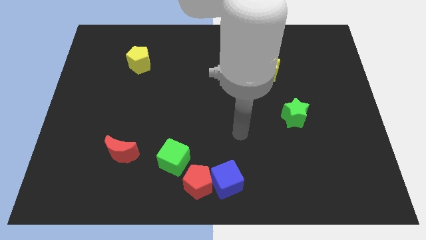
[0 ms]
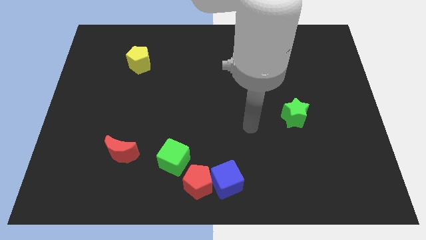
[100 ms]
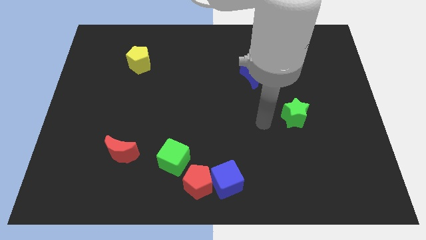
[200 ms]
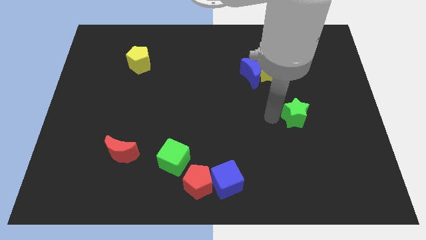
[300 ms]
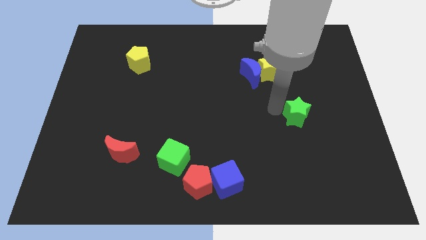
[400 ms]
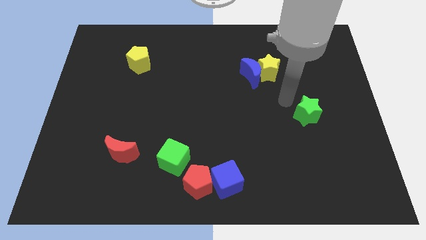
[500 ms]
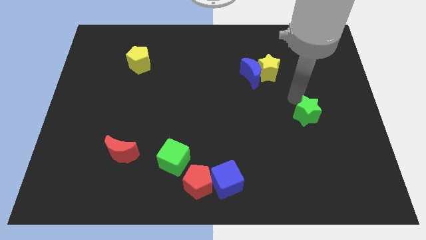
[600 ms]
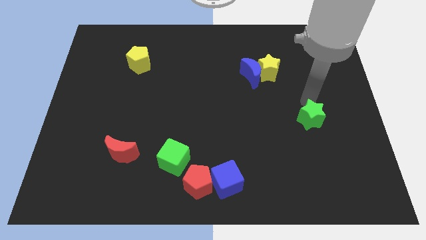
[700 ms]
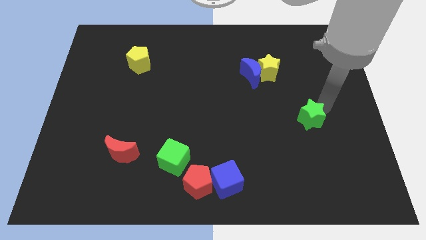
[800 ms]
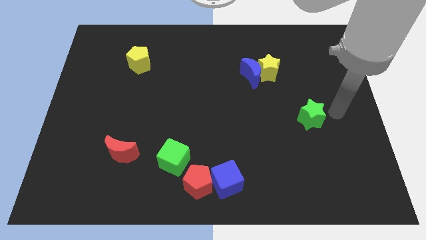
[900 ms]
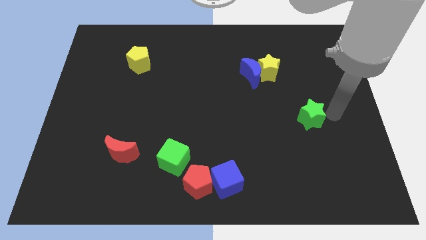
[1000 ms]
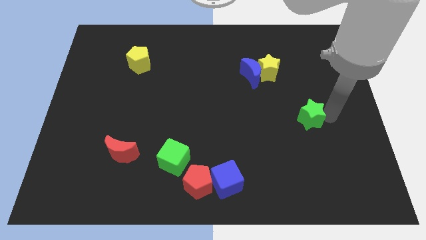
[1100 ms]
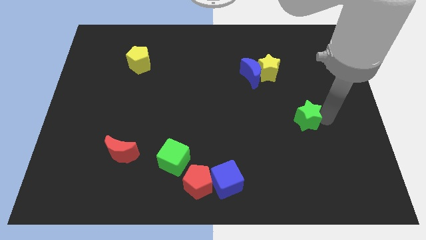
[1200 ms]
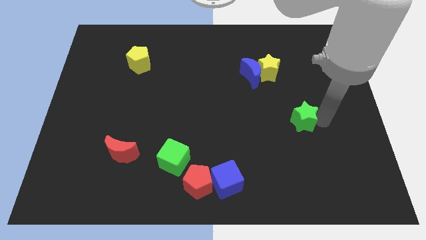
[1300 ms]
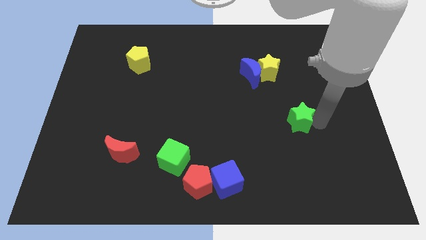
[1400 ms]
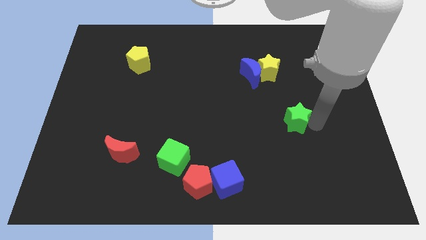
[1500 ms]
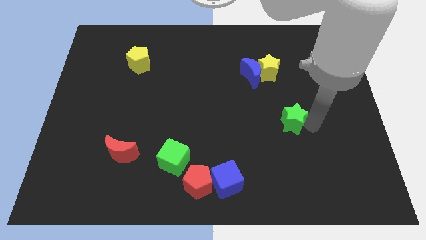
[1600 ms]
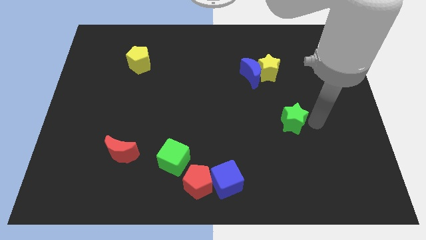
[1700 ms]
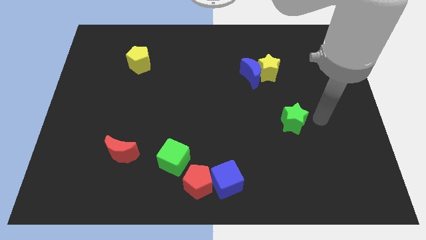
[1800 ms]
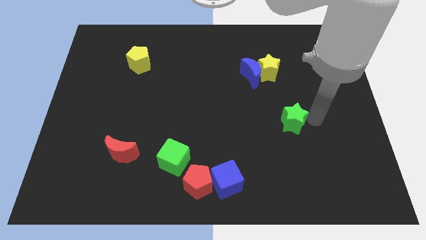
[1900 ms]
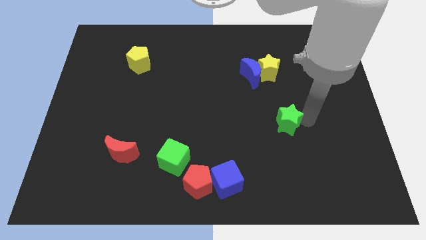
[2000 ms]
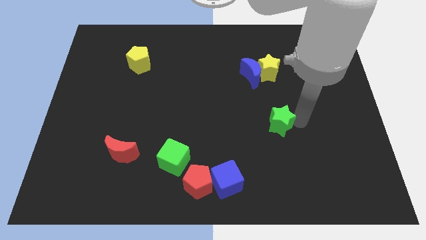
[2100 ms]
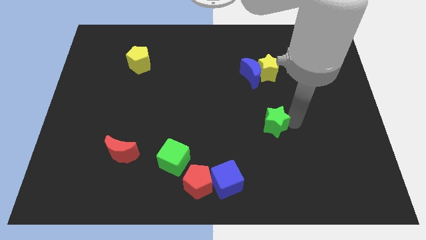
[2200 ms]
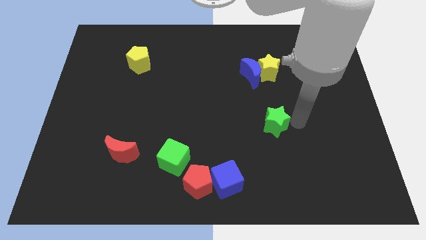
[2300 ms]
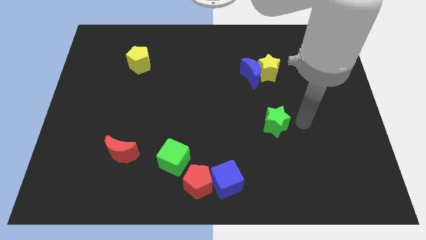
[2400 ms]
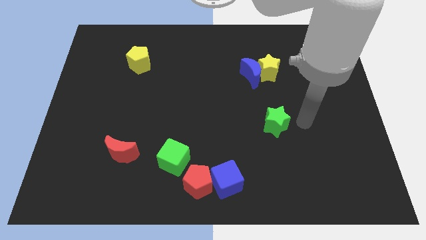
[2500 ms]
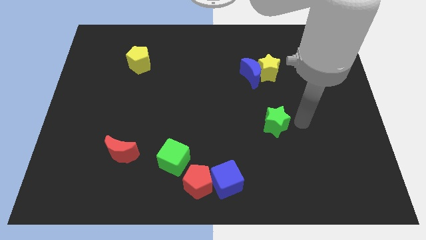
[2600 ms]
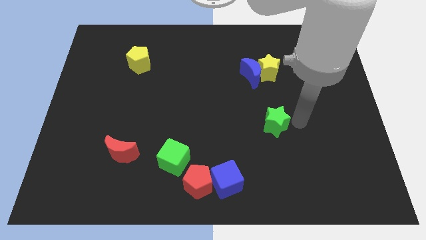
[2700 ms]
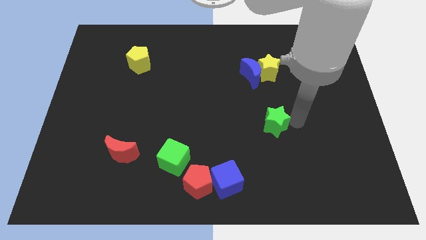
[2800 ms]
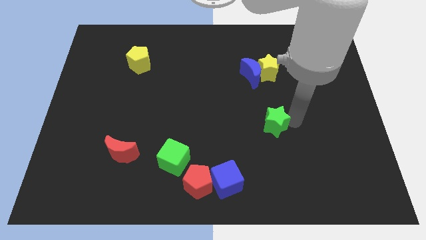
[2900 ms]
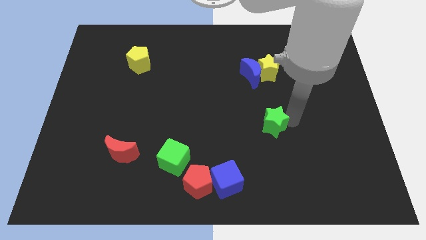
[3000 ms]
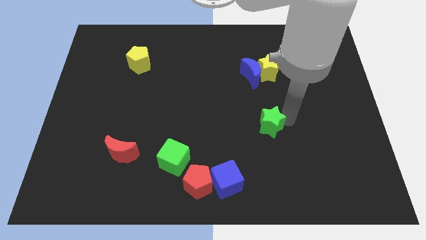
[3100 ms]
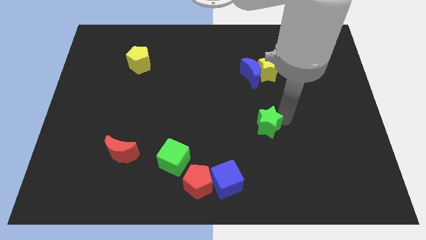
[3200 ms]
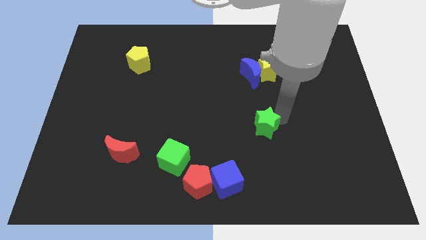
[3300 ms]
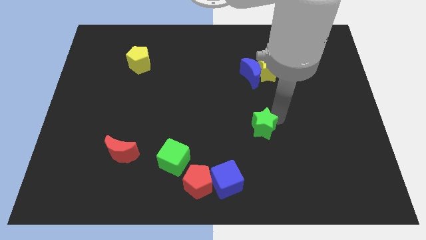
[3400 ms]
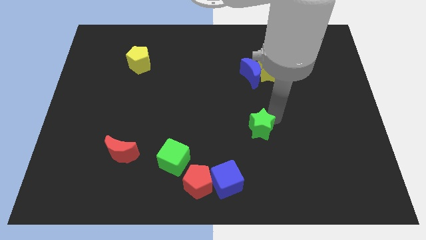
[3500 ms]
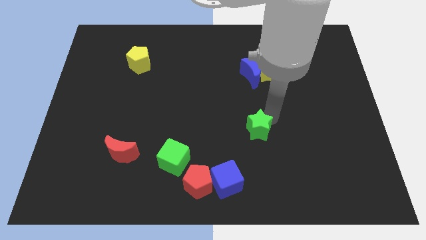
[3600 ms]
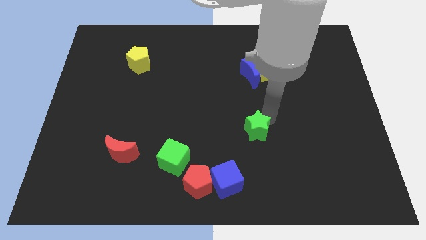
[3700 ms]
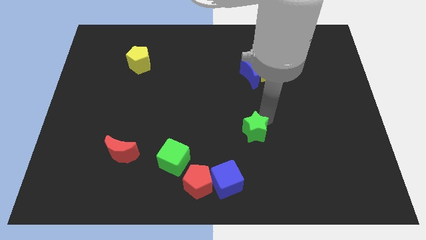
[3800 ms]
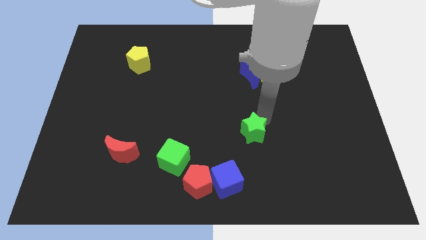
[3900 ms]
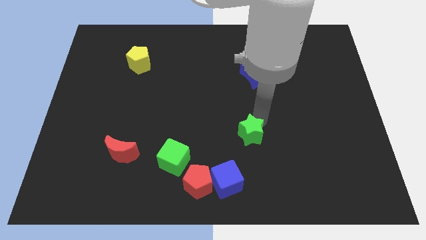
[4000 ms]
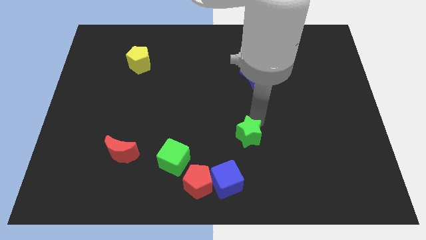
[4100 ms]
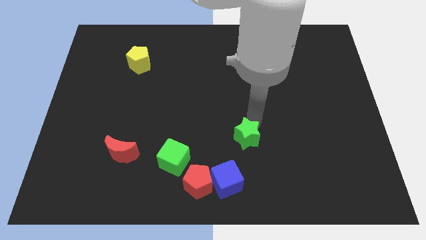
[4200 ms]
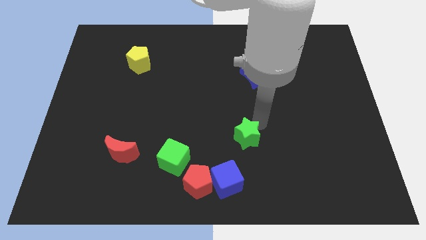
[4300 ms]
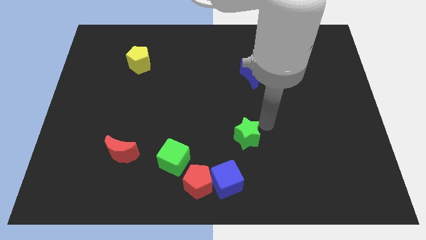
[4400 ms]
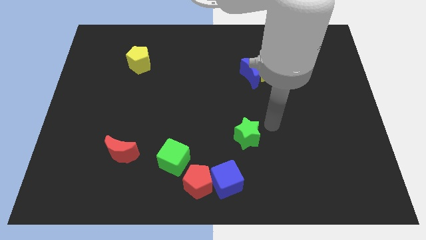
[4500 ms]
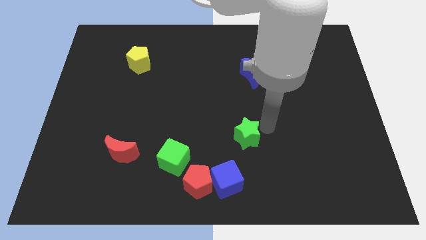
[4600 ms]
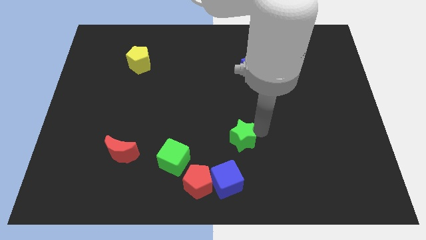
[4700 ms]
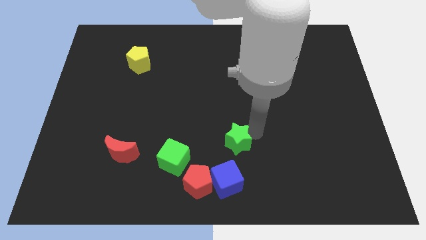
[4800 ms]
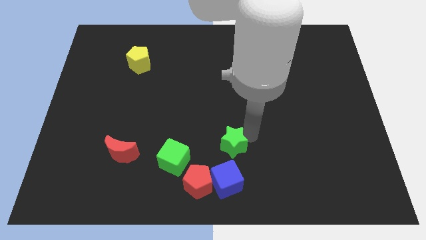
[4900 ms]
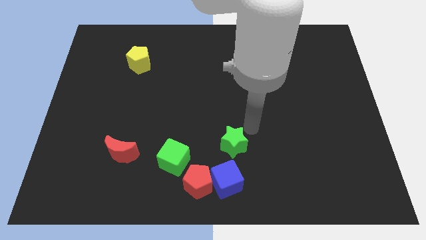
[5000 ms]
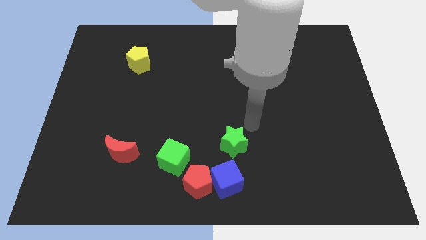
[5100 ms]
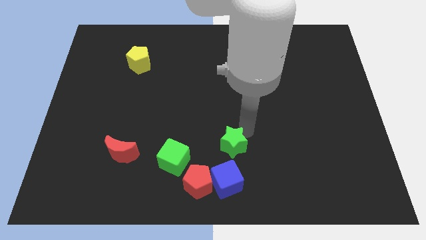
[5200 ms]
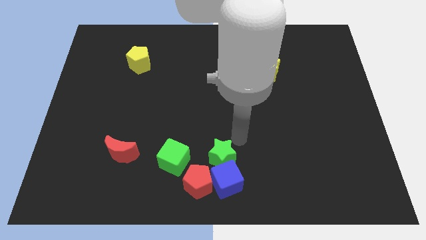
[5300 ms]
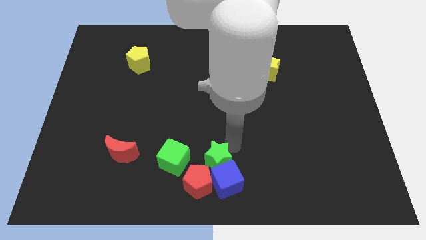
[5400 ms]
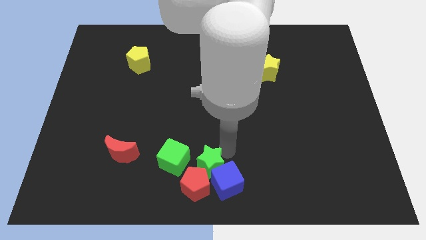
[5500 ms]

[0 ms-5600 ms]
put the green star next to the red pentagon

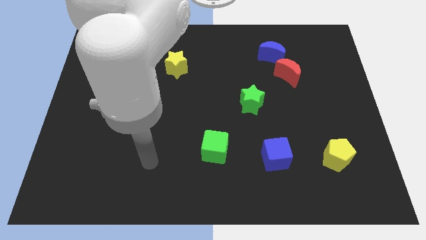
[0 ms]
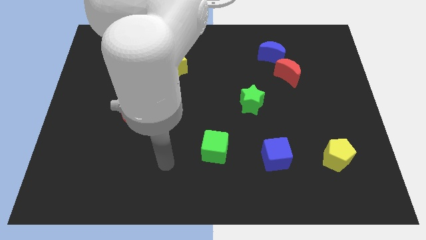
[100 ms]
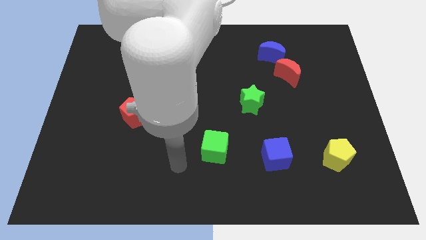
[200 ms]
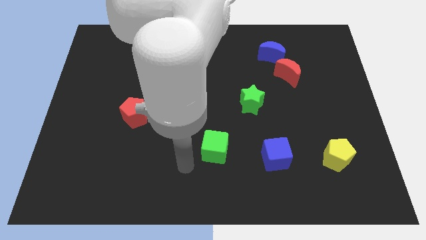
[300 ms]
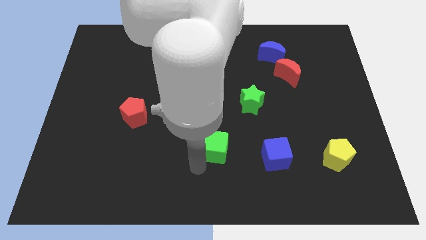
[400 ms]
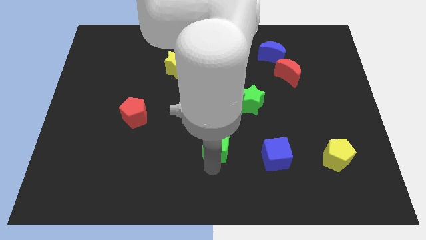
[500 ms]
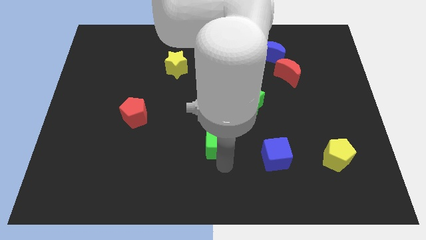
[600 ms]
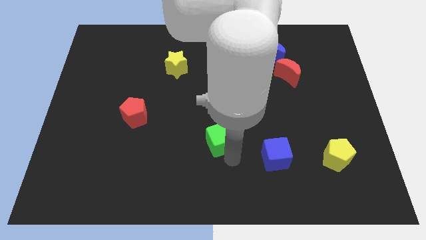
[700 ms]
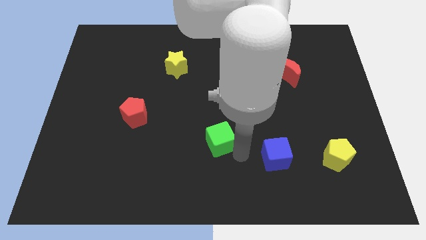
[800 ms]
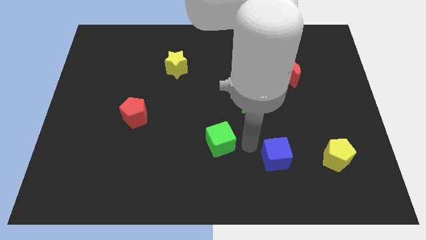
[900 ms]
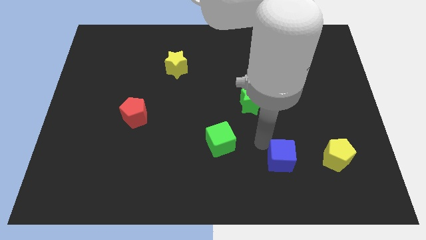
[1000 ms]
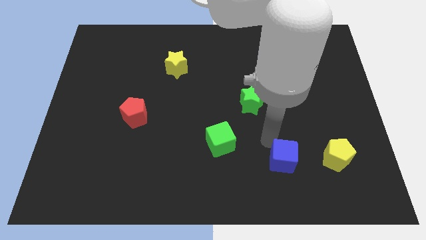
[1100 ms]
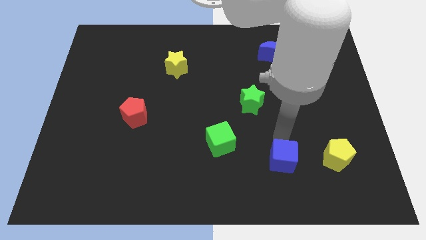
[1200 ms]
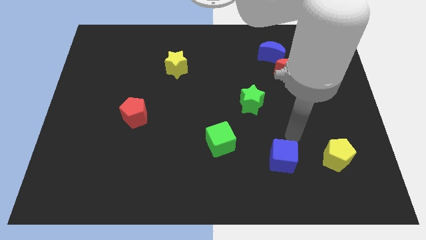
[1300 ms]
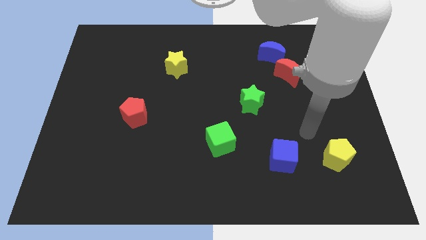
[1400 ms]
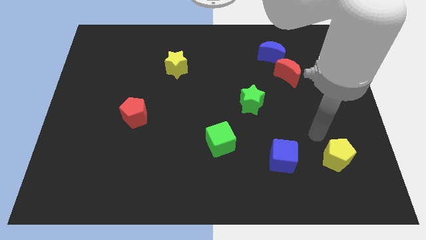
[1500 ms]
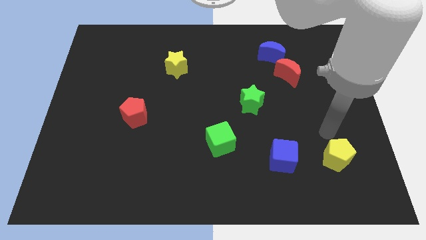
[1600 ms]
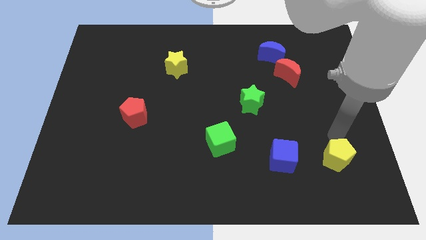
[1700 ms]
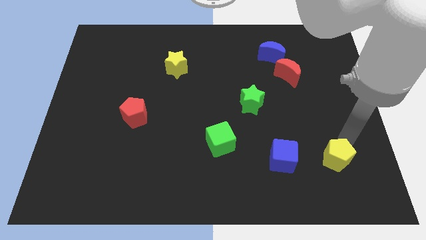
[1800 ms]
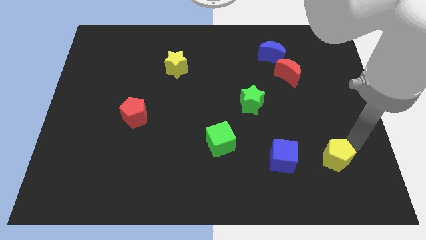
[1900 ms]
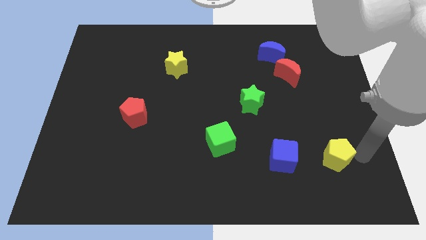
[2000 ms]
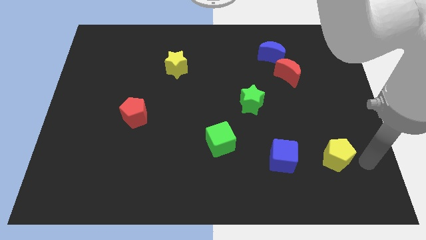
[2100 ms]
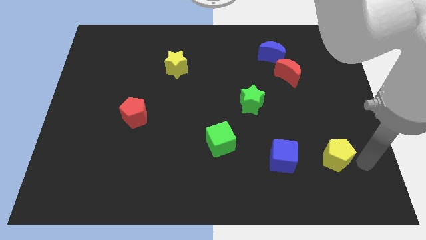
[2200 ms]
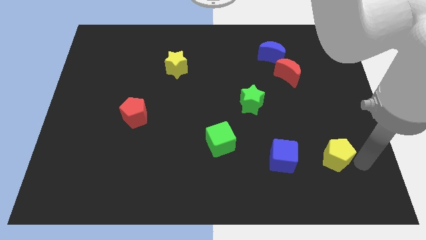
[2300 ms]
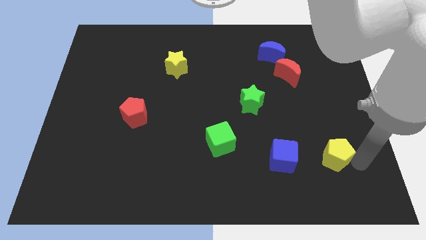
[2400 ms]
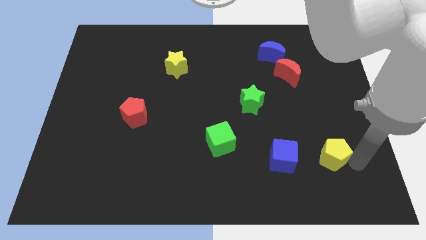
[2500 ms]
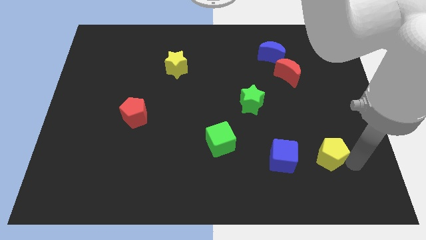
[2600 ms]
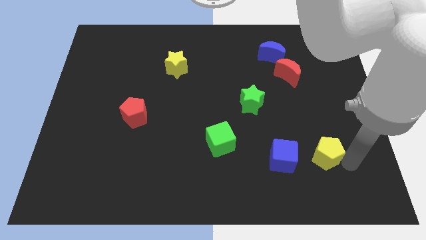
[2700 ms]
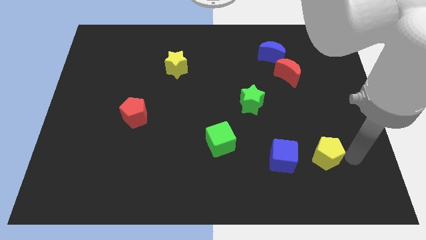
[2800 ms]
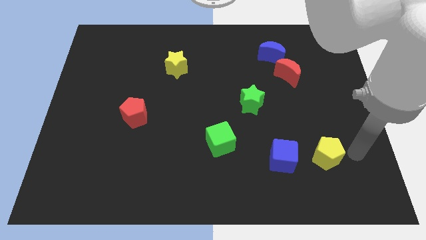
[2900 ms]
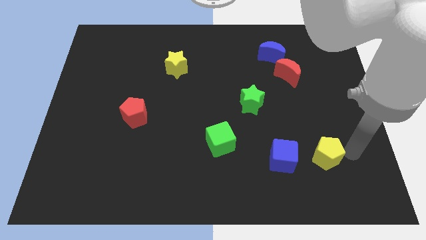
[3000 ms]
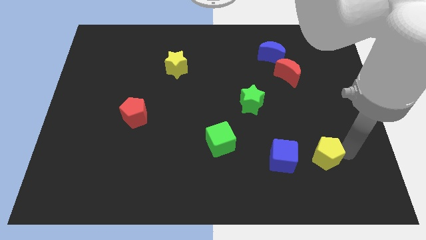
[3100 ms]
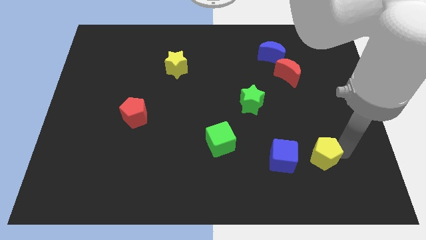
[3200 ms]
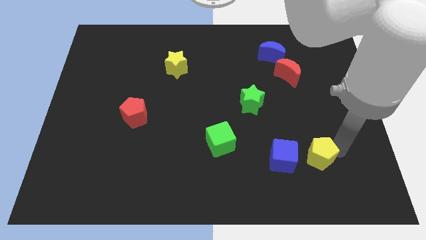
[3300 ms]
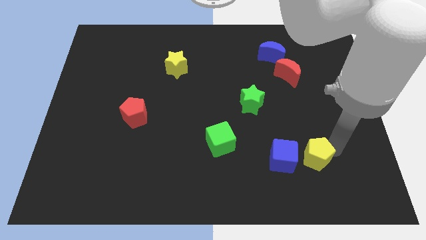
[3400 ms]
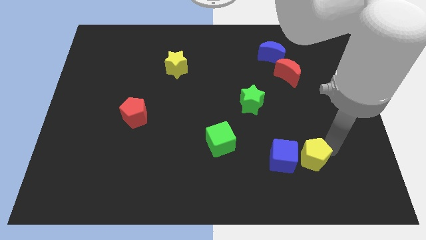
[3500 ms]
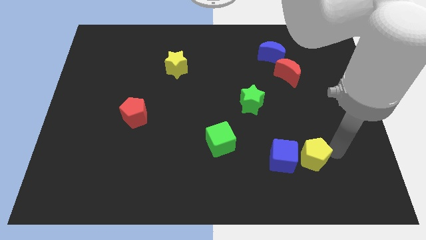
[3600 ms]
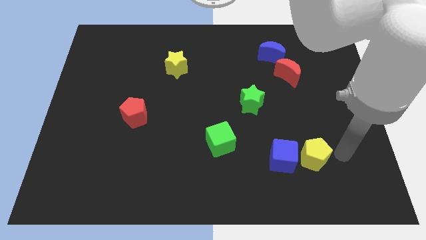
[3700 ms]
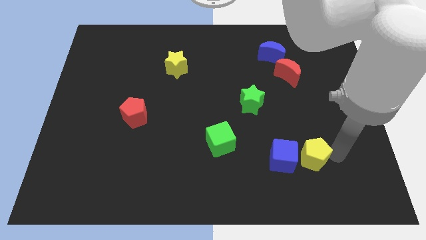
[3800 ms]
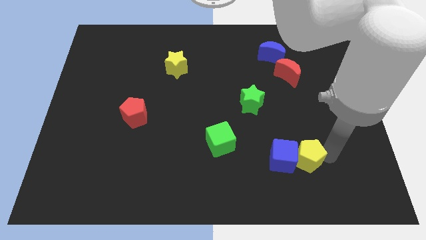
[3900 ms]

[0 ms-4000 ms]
move the yellow pentagon towards the blue cube
